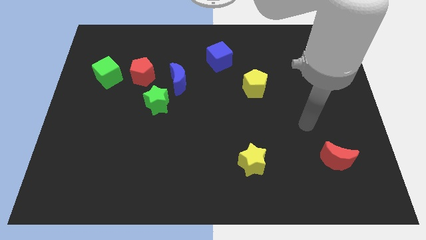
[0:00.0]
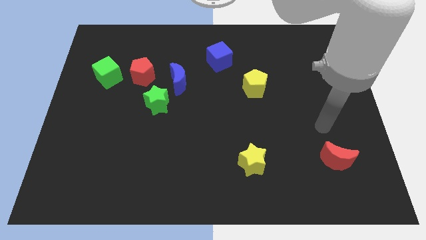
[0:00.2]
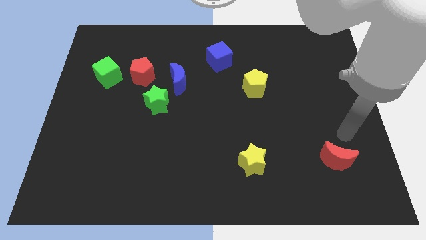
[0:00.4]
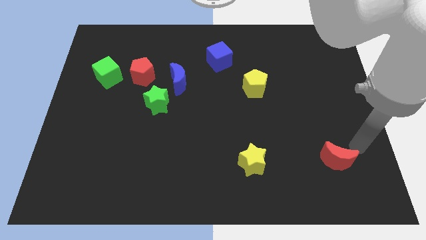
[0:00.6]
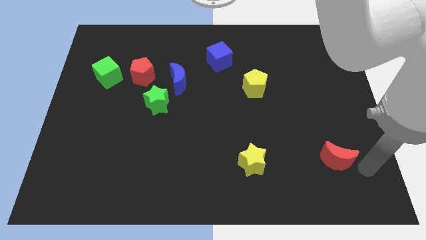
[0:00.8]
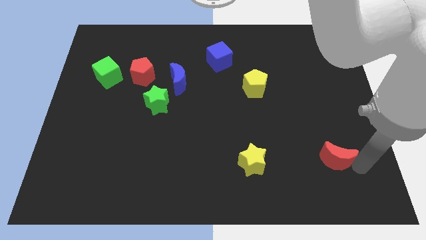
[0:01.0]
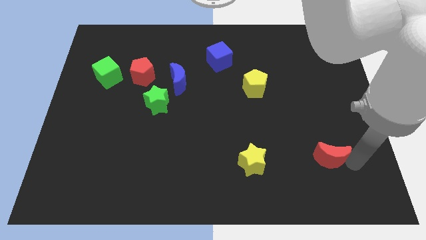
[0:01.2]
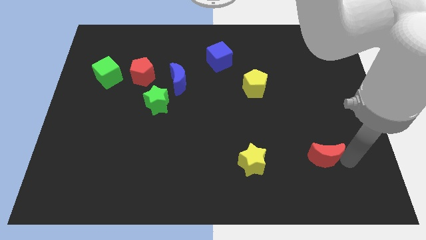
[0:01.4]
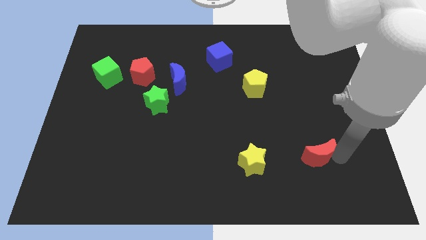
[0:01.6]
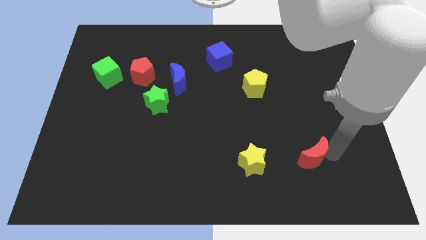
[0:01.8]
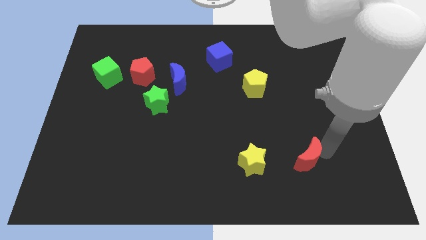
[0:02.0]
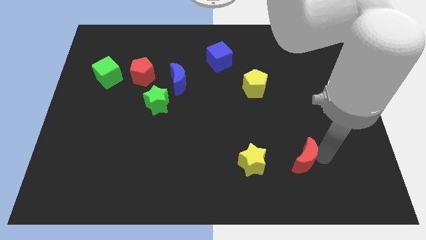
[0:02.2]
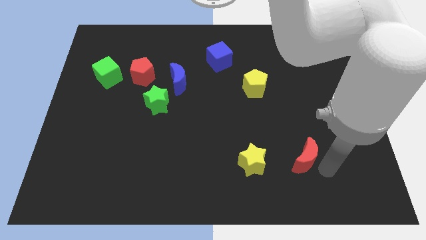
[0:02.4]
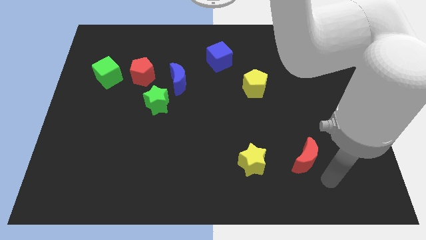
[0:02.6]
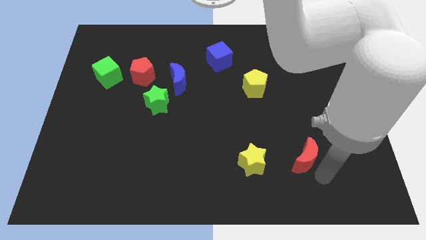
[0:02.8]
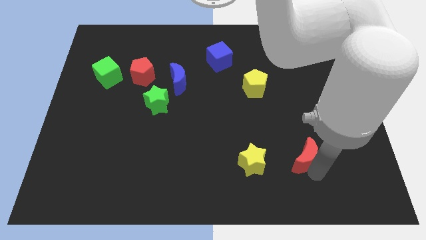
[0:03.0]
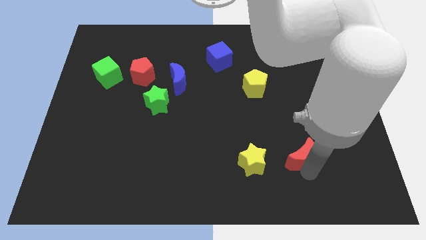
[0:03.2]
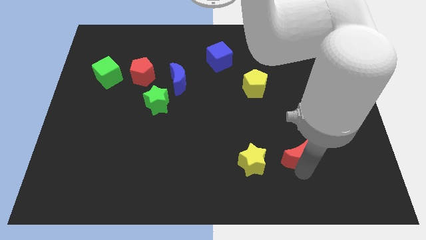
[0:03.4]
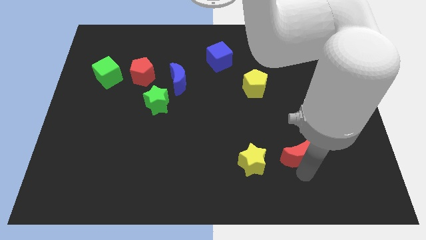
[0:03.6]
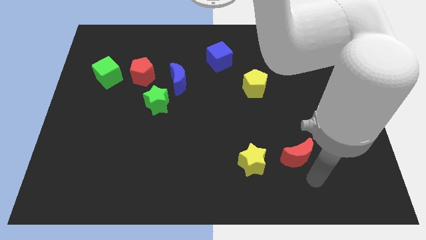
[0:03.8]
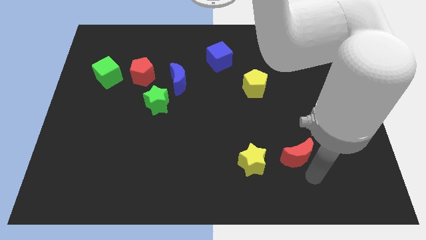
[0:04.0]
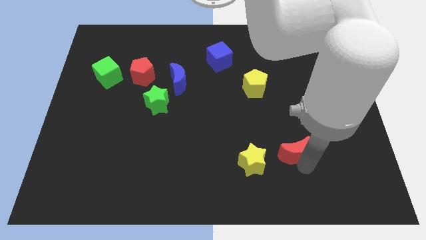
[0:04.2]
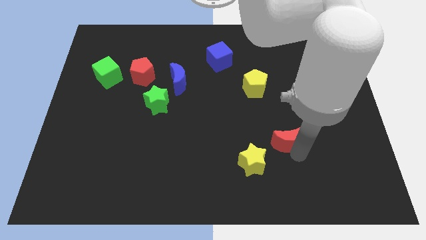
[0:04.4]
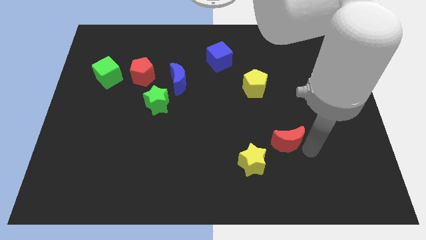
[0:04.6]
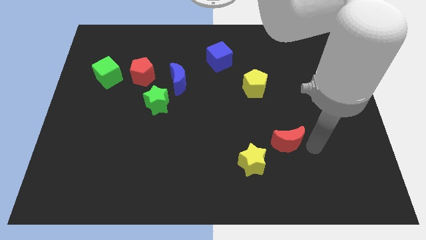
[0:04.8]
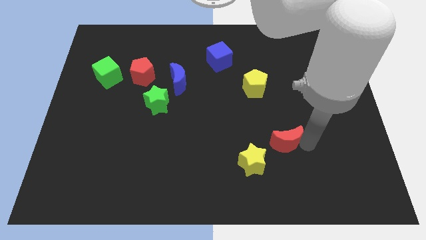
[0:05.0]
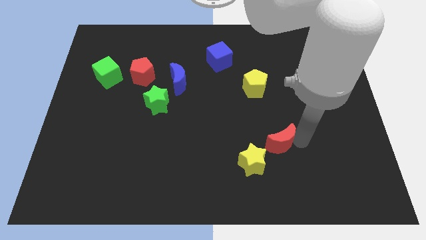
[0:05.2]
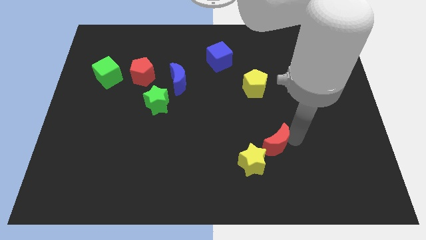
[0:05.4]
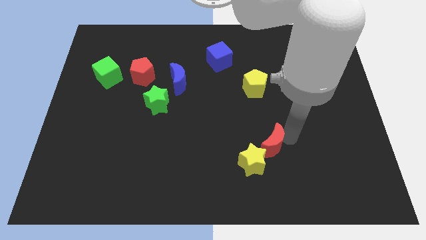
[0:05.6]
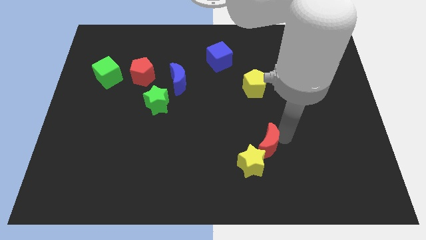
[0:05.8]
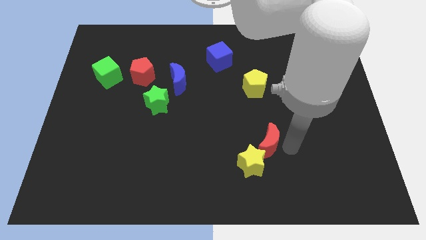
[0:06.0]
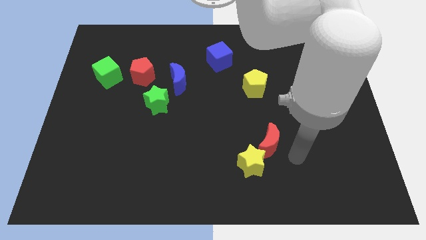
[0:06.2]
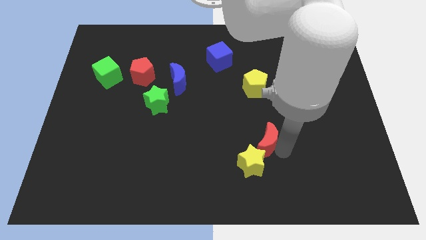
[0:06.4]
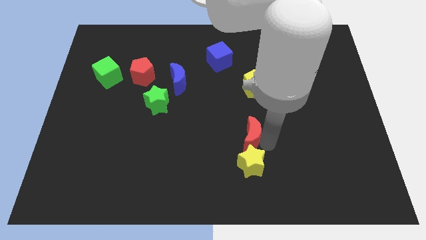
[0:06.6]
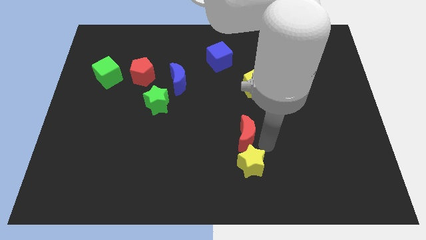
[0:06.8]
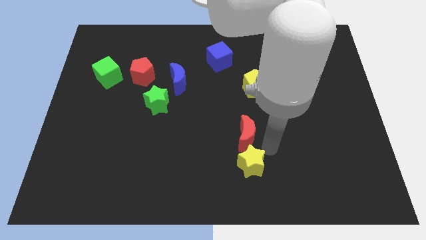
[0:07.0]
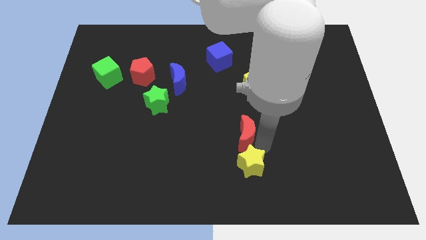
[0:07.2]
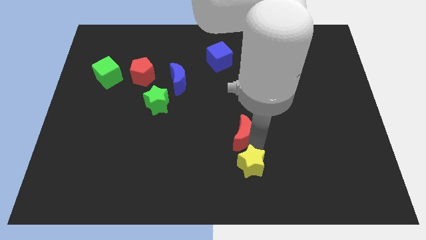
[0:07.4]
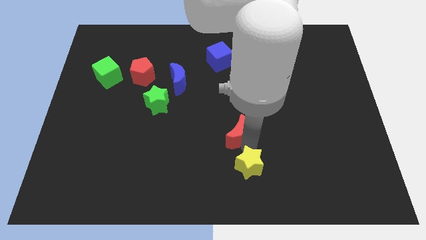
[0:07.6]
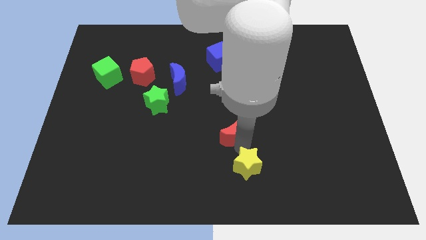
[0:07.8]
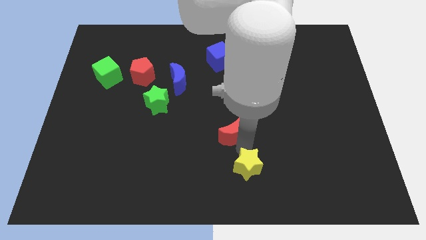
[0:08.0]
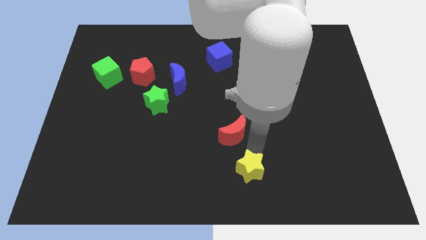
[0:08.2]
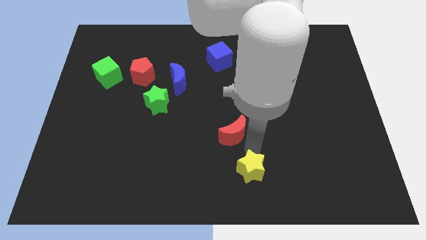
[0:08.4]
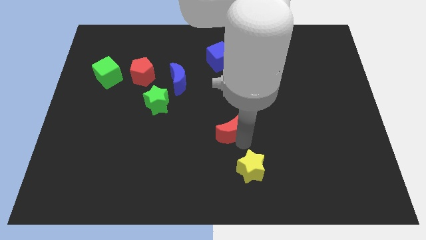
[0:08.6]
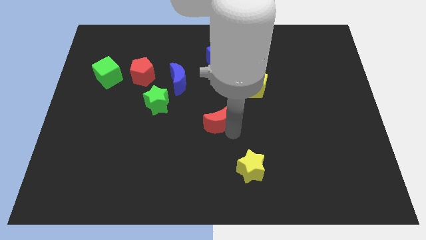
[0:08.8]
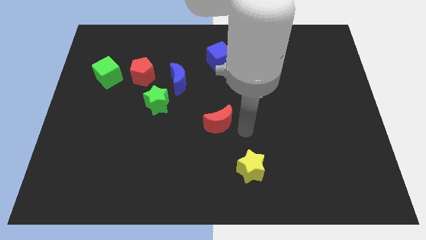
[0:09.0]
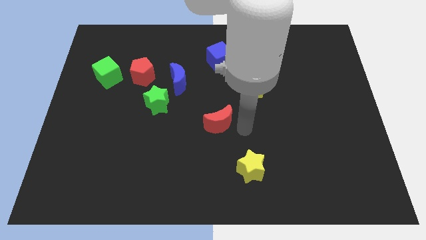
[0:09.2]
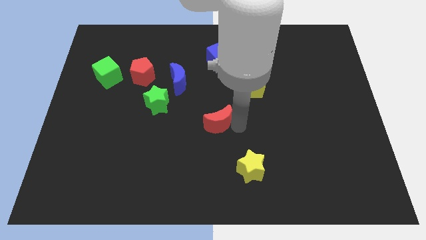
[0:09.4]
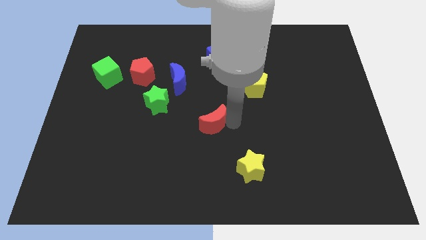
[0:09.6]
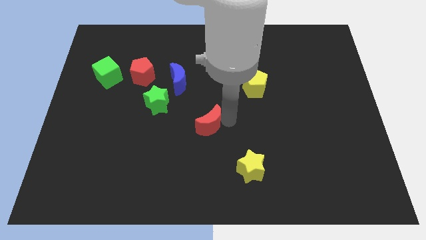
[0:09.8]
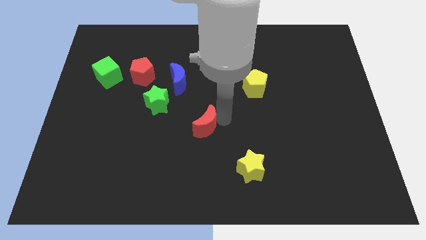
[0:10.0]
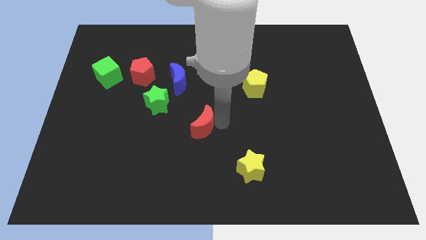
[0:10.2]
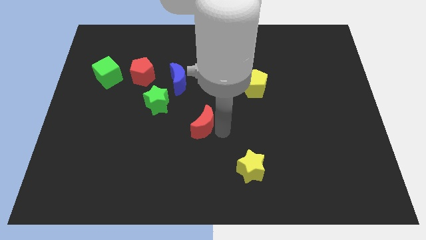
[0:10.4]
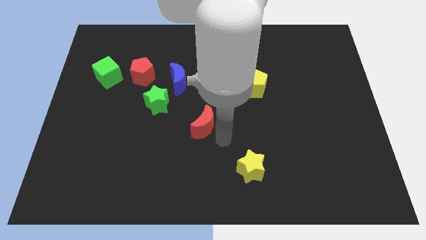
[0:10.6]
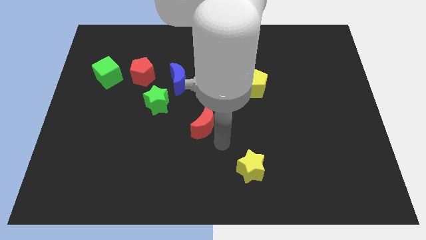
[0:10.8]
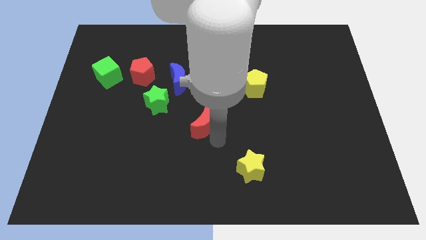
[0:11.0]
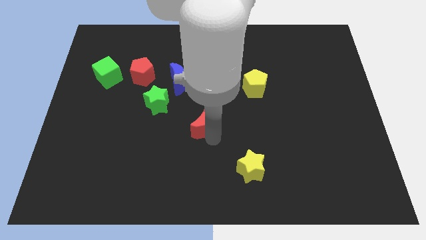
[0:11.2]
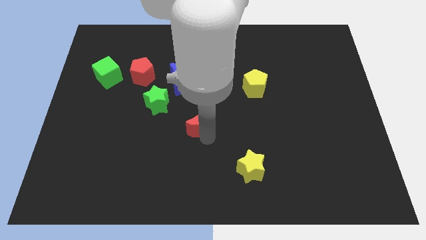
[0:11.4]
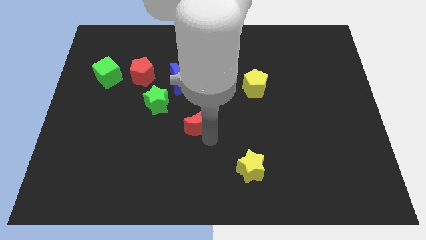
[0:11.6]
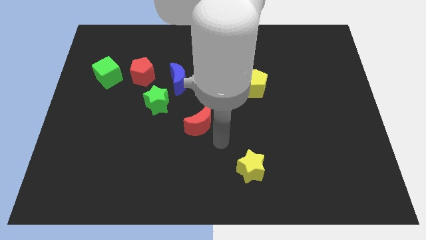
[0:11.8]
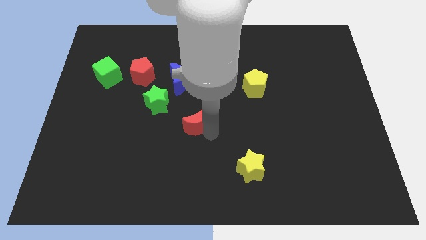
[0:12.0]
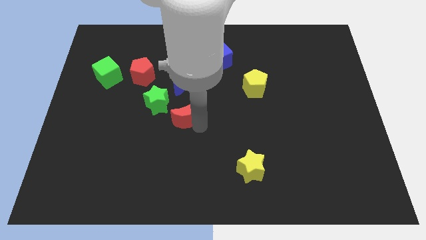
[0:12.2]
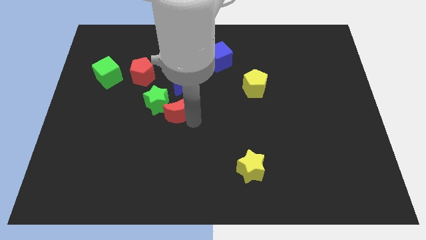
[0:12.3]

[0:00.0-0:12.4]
push the red moon to the green star

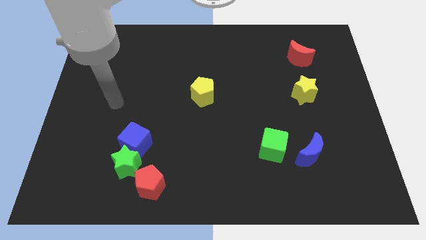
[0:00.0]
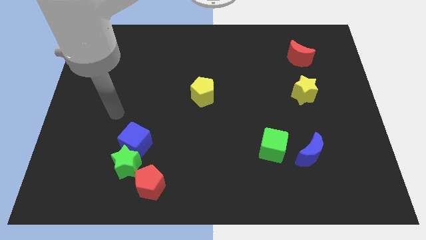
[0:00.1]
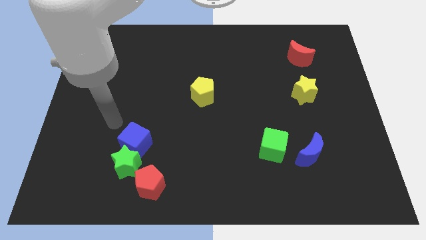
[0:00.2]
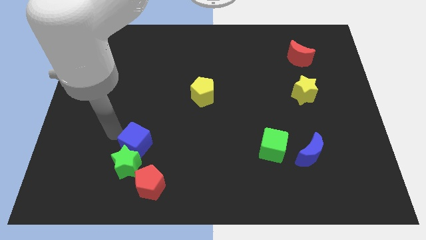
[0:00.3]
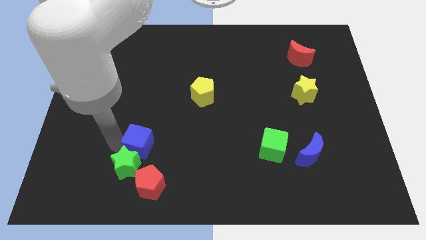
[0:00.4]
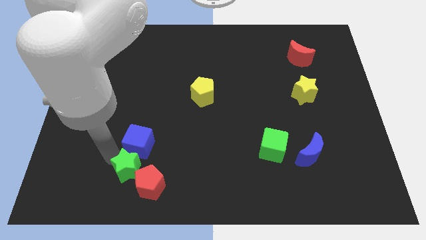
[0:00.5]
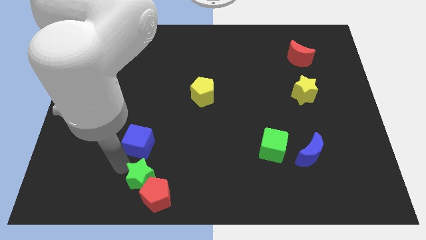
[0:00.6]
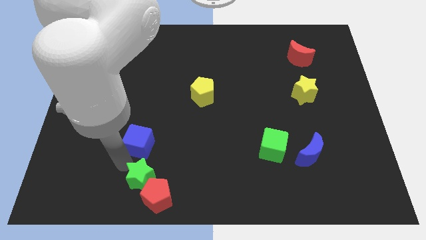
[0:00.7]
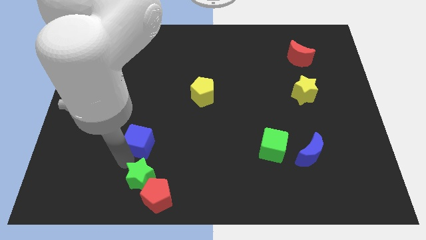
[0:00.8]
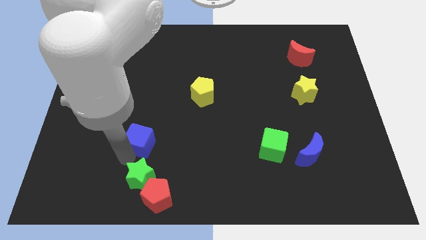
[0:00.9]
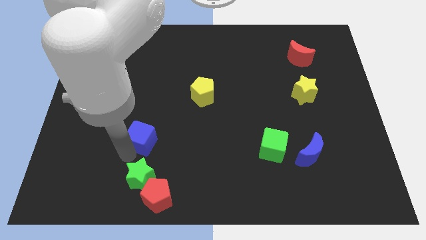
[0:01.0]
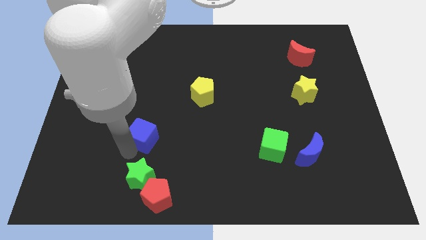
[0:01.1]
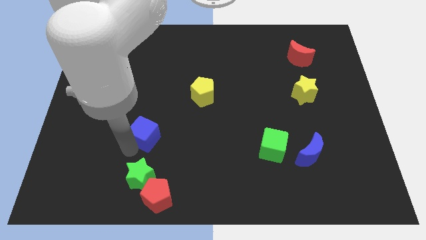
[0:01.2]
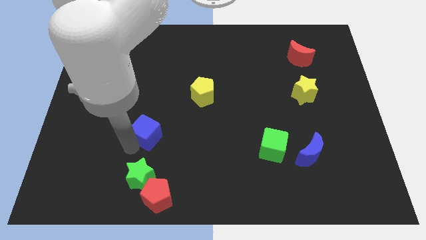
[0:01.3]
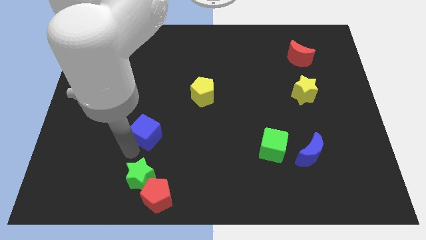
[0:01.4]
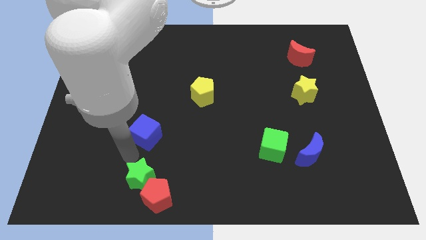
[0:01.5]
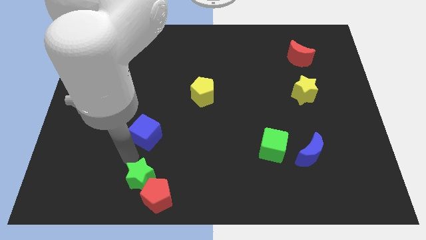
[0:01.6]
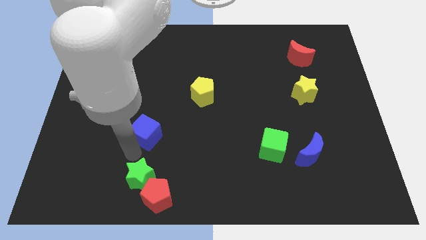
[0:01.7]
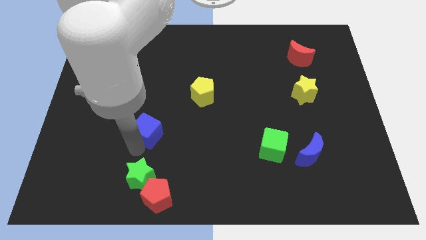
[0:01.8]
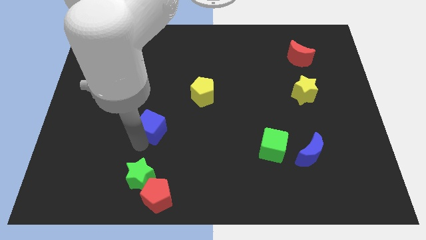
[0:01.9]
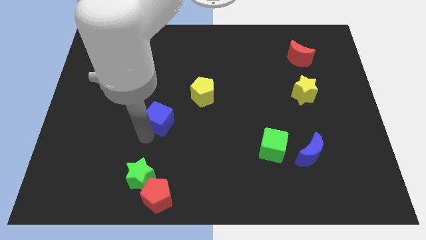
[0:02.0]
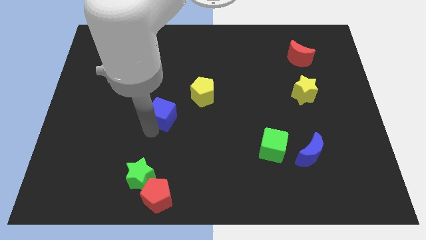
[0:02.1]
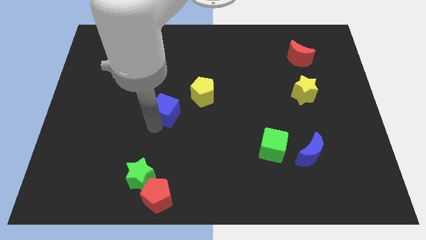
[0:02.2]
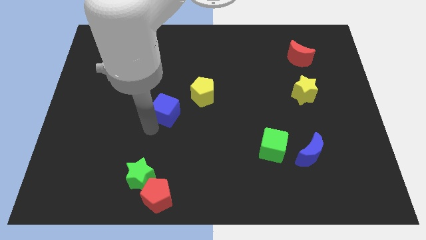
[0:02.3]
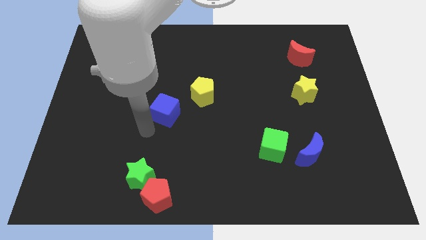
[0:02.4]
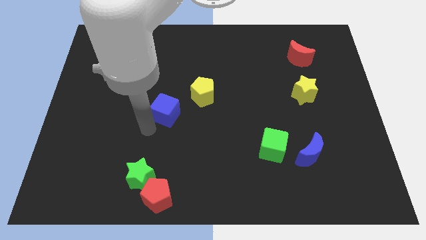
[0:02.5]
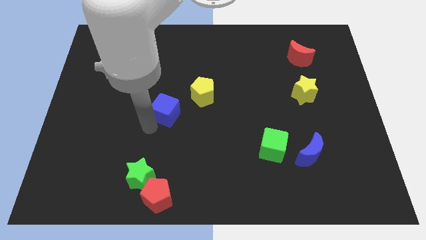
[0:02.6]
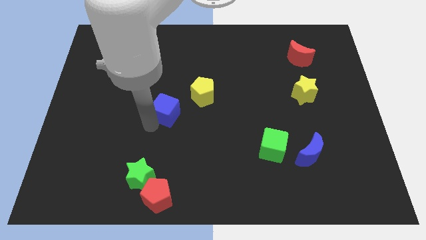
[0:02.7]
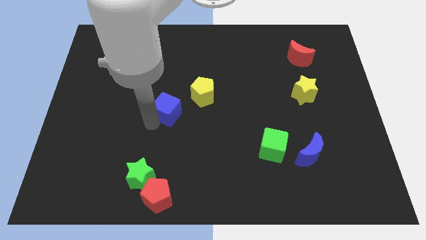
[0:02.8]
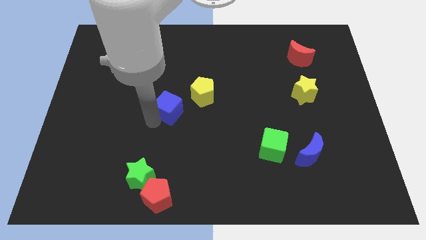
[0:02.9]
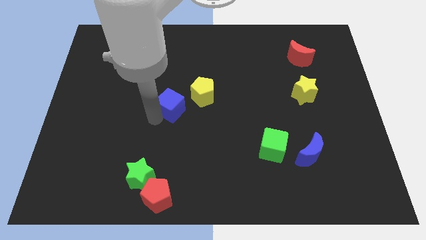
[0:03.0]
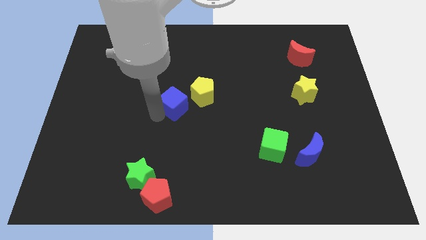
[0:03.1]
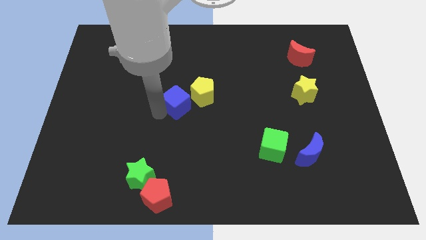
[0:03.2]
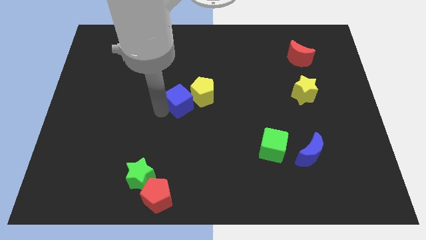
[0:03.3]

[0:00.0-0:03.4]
push the blue cube towards the yellow pentagon
